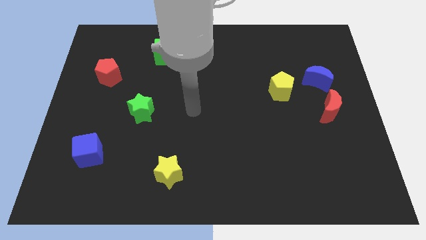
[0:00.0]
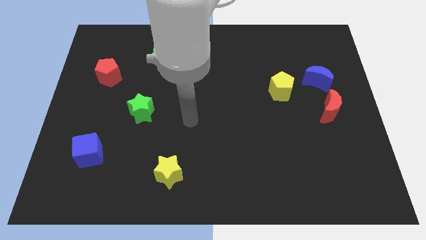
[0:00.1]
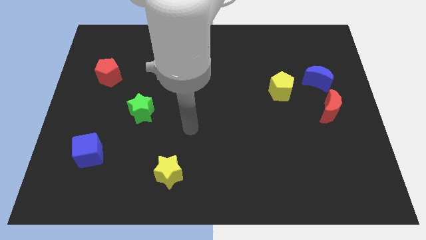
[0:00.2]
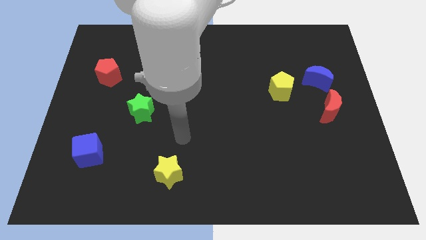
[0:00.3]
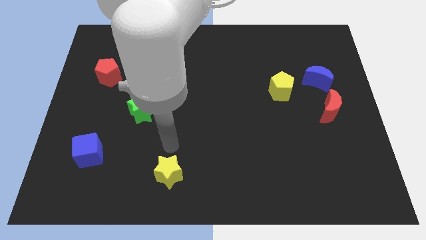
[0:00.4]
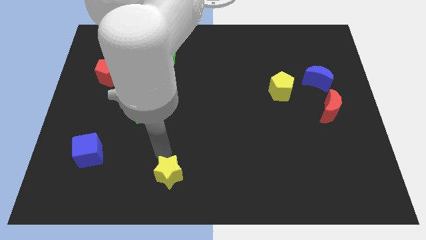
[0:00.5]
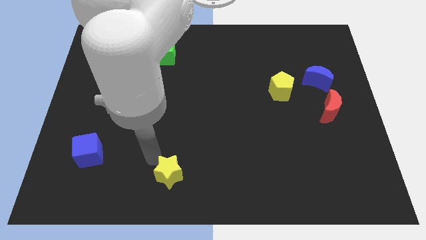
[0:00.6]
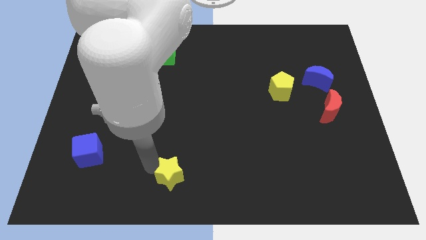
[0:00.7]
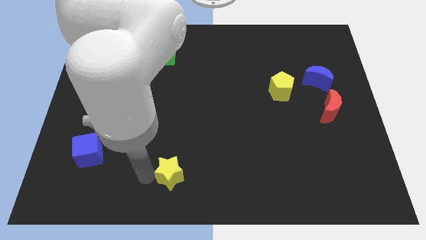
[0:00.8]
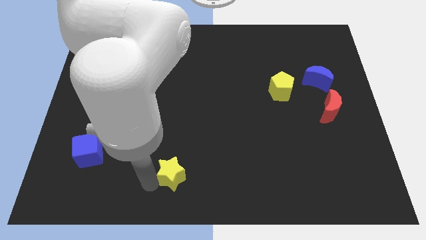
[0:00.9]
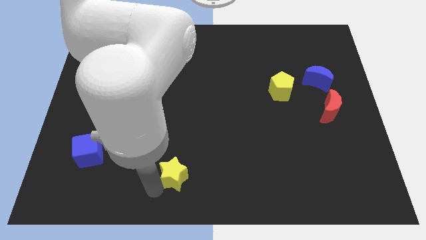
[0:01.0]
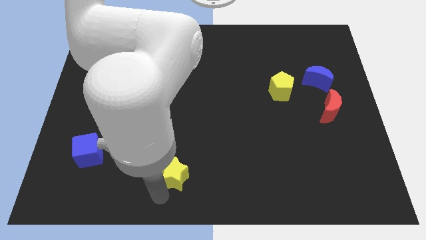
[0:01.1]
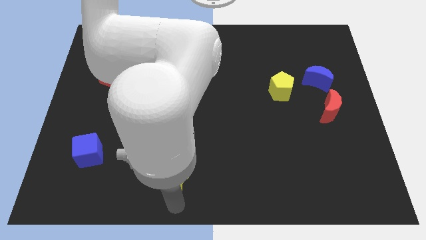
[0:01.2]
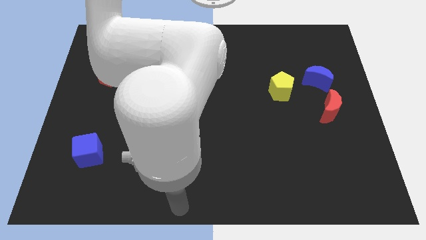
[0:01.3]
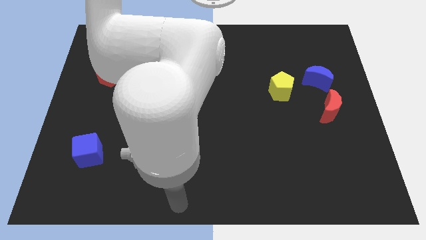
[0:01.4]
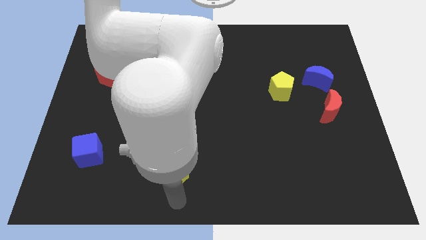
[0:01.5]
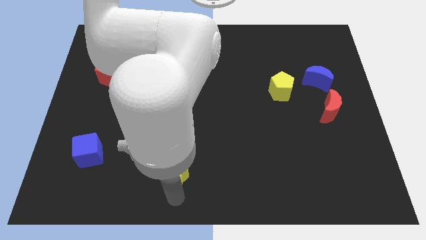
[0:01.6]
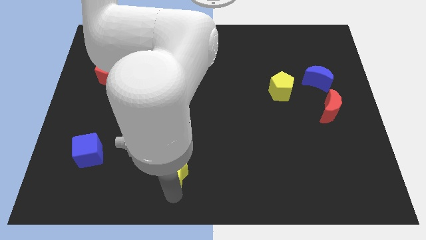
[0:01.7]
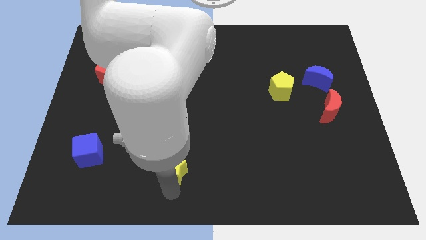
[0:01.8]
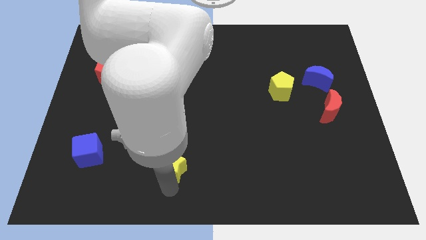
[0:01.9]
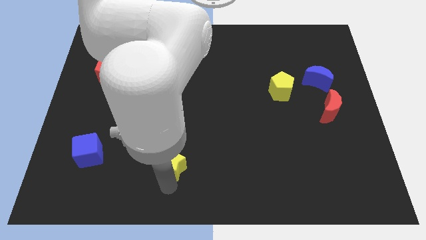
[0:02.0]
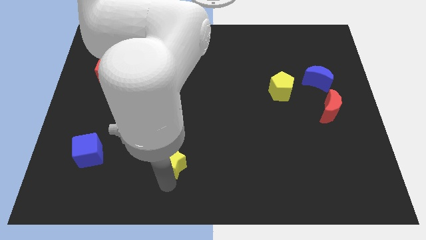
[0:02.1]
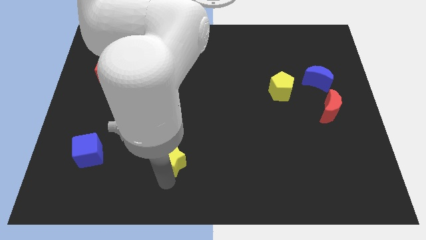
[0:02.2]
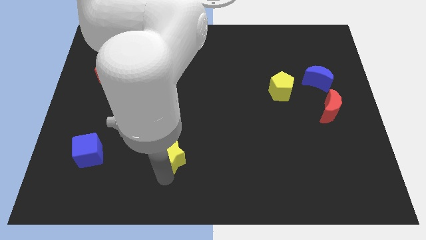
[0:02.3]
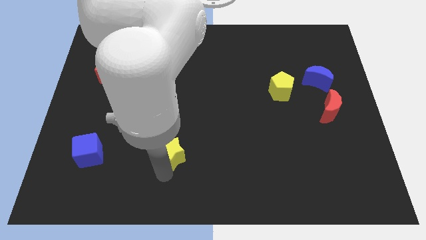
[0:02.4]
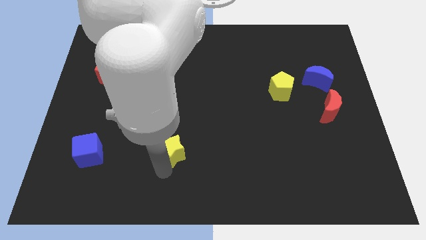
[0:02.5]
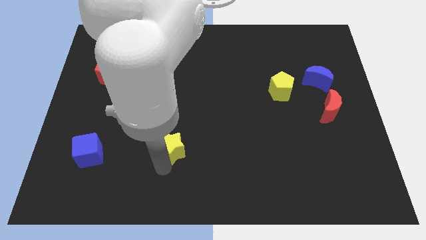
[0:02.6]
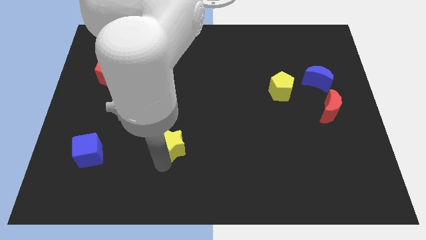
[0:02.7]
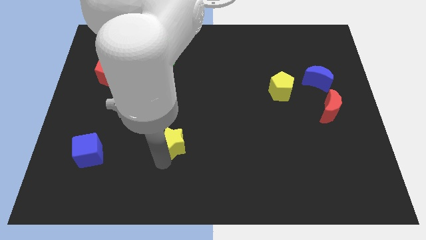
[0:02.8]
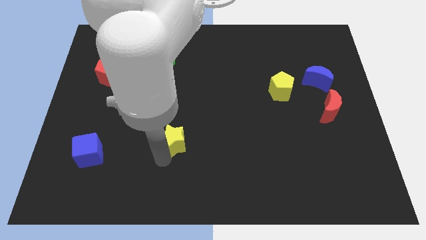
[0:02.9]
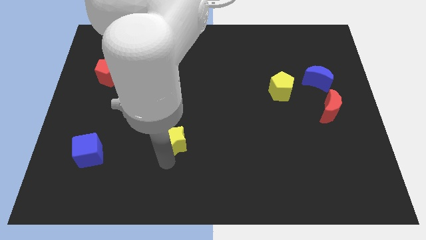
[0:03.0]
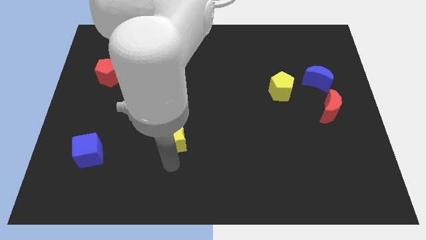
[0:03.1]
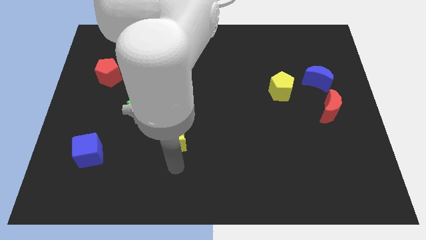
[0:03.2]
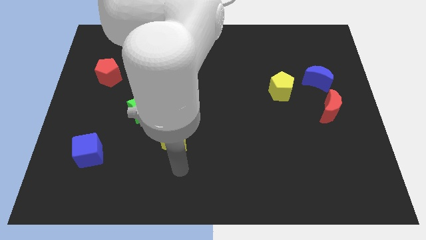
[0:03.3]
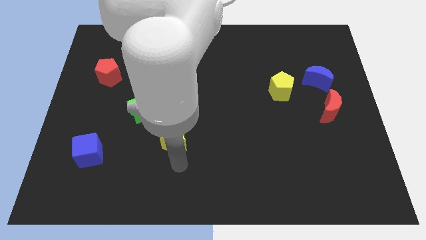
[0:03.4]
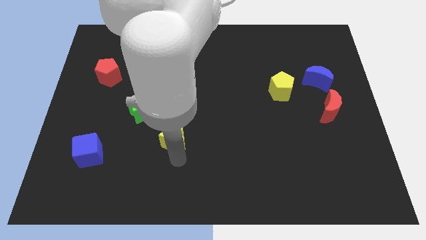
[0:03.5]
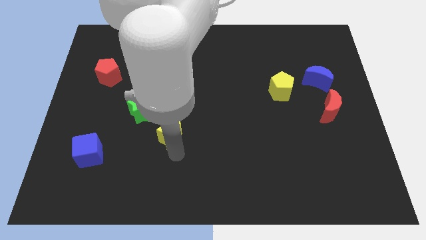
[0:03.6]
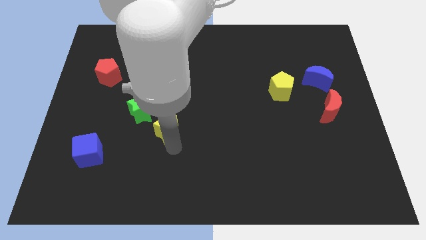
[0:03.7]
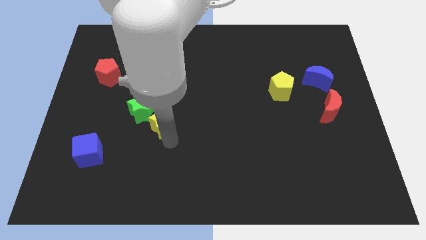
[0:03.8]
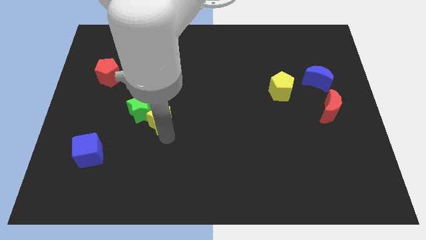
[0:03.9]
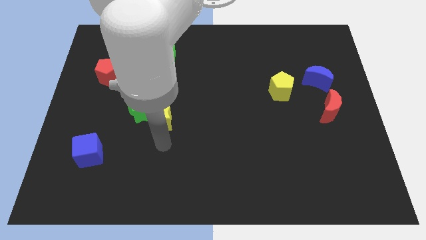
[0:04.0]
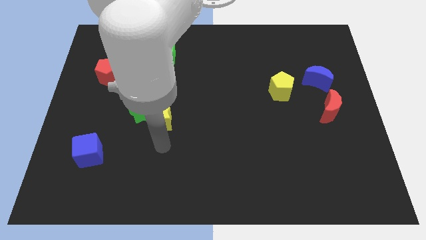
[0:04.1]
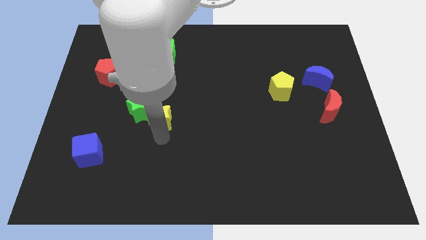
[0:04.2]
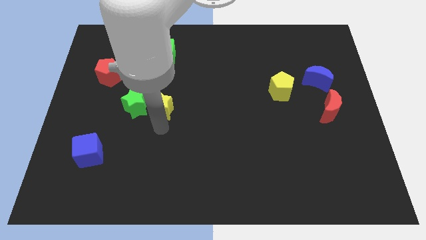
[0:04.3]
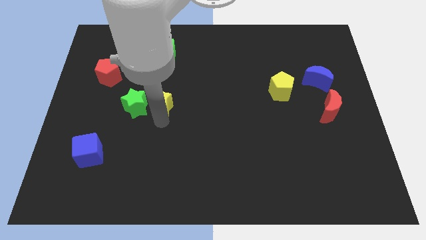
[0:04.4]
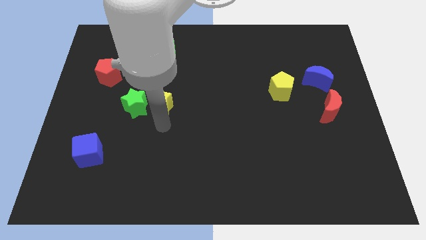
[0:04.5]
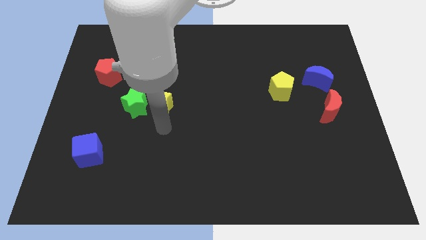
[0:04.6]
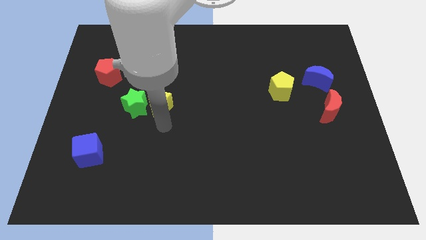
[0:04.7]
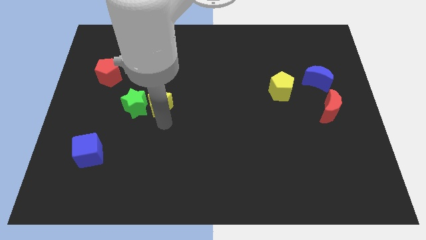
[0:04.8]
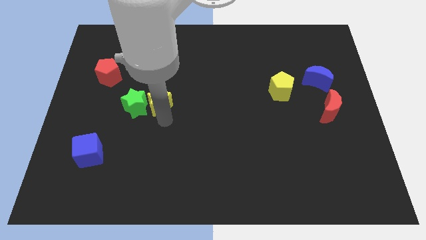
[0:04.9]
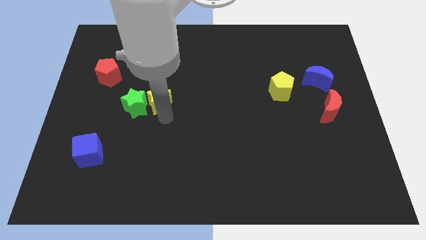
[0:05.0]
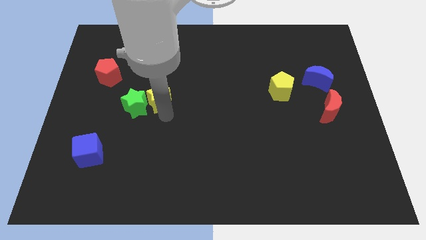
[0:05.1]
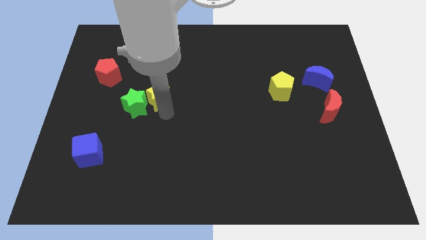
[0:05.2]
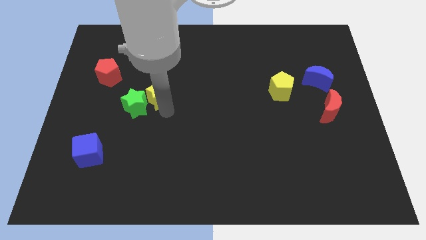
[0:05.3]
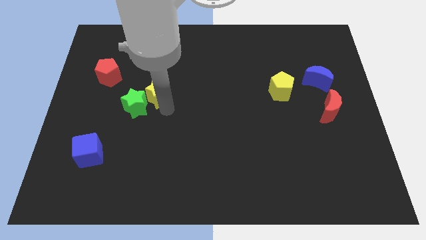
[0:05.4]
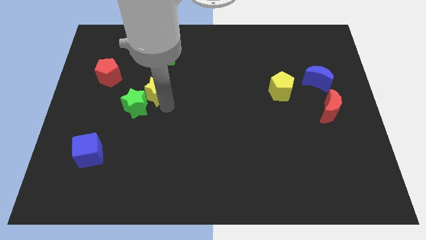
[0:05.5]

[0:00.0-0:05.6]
push the yellow star to the top side of the green star

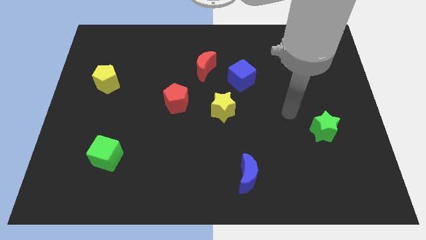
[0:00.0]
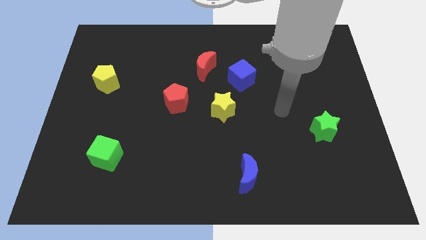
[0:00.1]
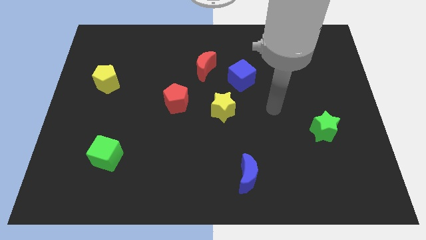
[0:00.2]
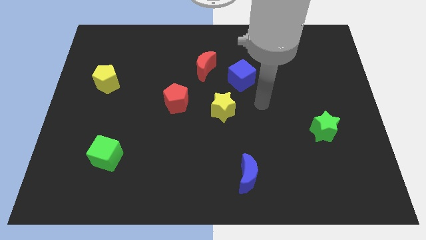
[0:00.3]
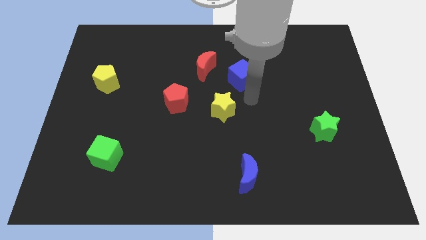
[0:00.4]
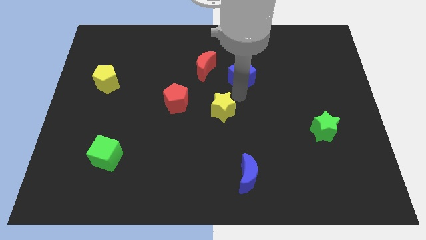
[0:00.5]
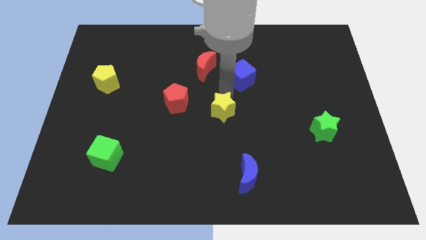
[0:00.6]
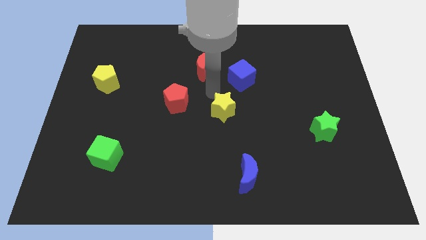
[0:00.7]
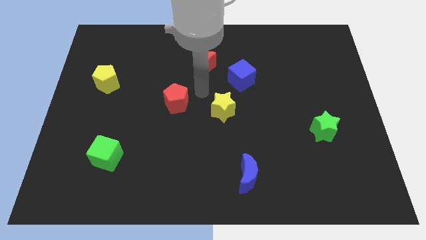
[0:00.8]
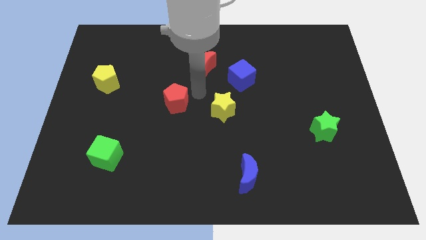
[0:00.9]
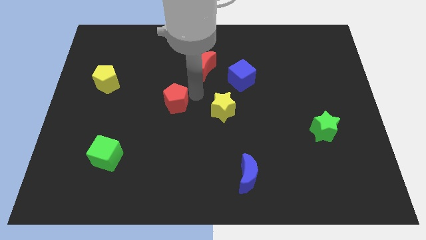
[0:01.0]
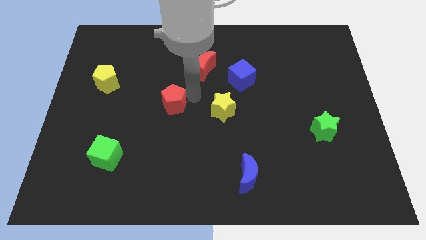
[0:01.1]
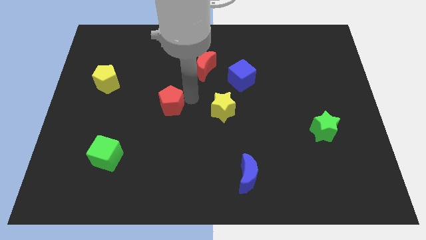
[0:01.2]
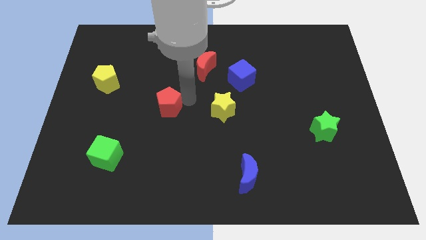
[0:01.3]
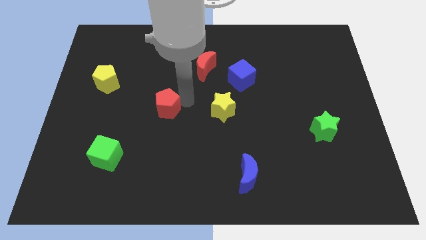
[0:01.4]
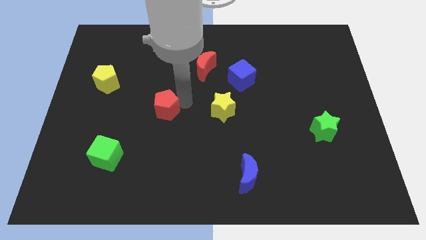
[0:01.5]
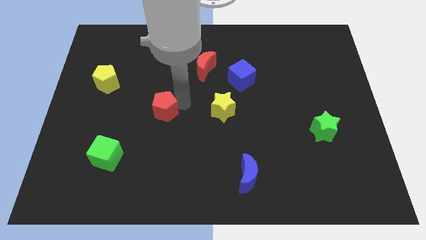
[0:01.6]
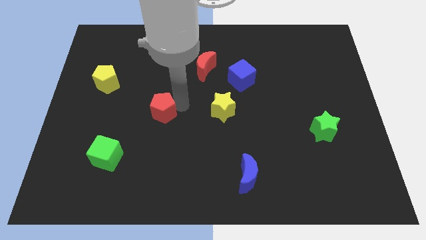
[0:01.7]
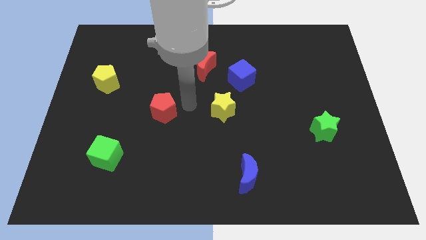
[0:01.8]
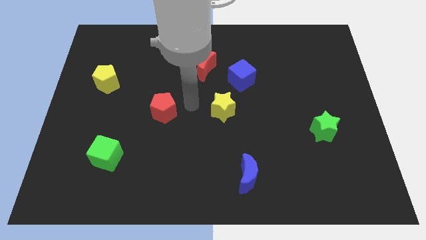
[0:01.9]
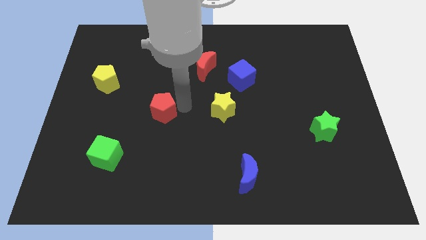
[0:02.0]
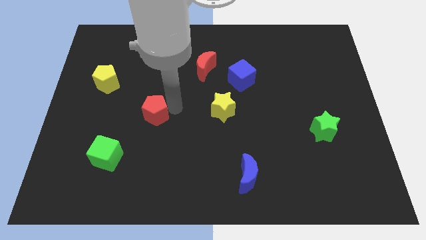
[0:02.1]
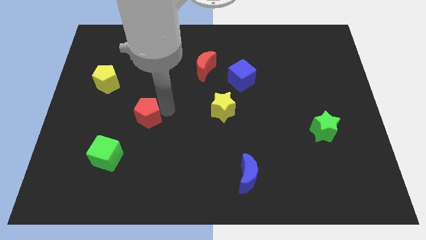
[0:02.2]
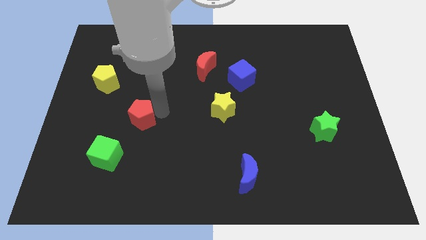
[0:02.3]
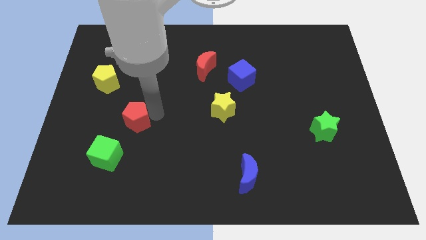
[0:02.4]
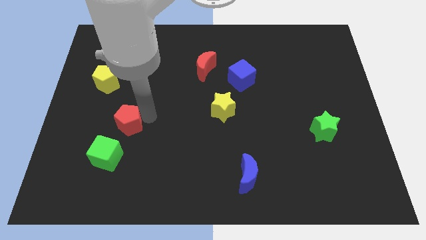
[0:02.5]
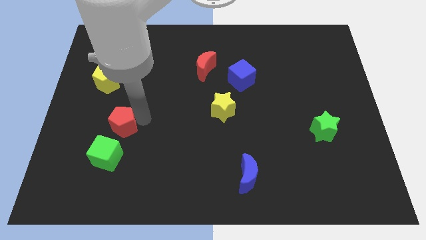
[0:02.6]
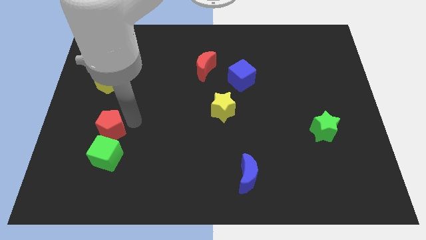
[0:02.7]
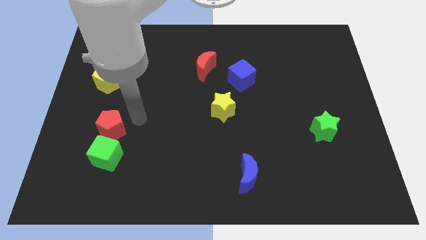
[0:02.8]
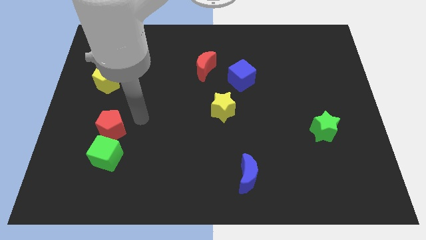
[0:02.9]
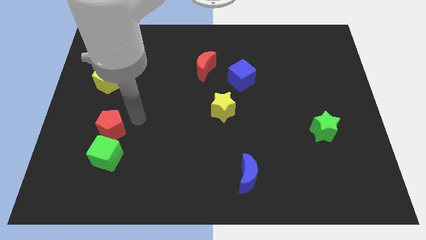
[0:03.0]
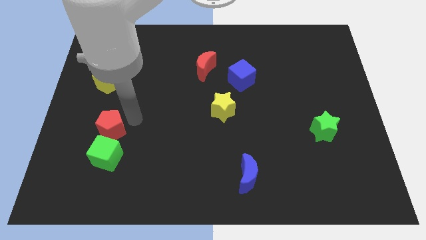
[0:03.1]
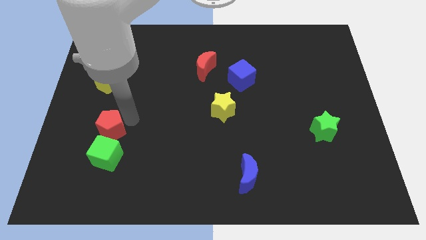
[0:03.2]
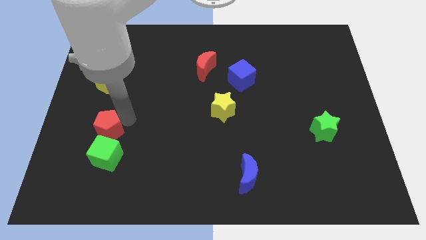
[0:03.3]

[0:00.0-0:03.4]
slide the red pentagon to the top left side of the green cube
